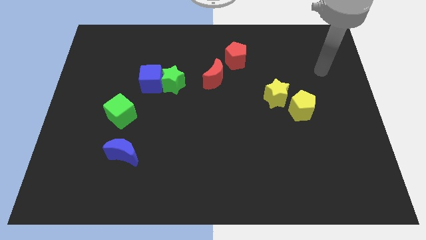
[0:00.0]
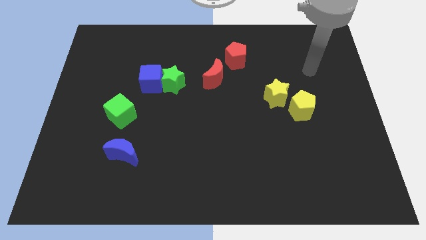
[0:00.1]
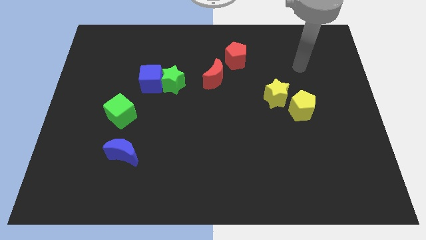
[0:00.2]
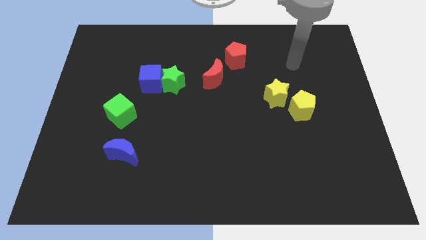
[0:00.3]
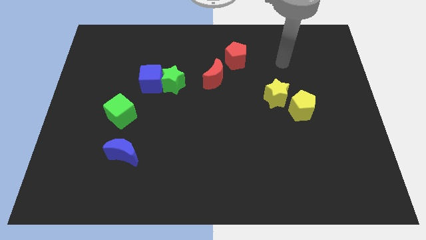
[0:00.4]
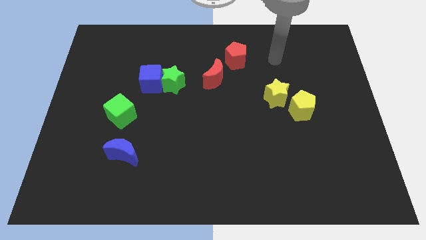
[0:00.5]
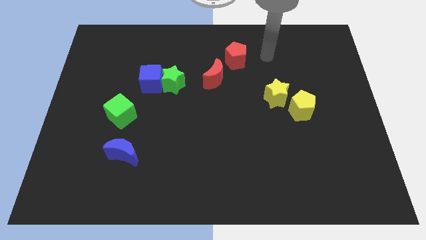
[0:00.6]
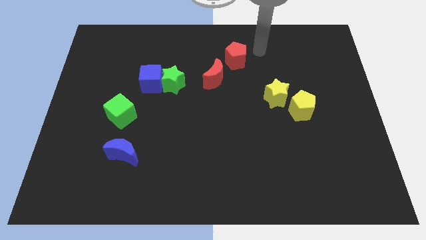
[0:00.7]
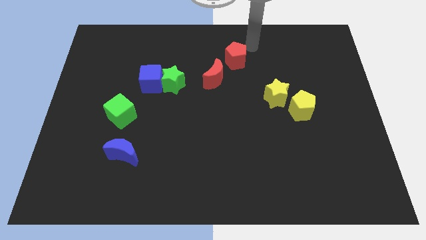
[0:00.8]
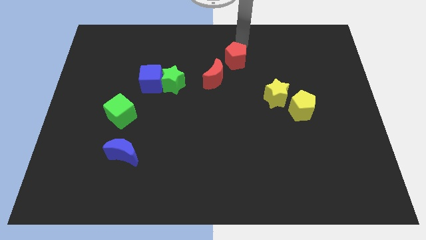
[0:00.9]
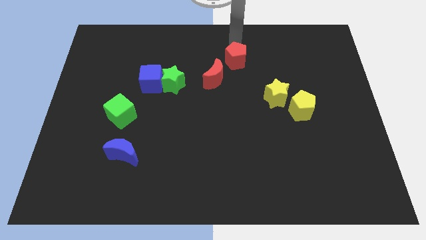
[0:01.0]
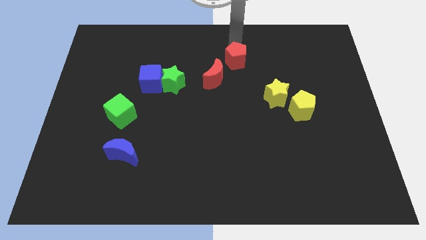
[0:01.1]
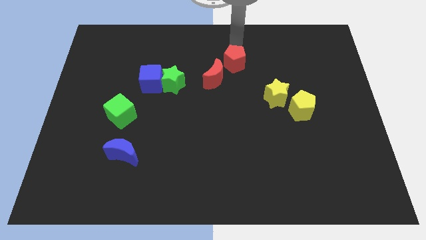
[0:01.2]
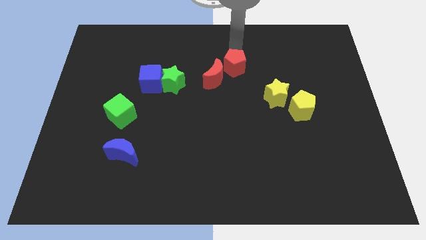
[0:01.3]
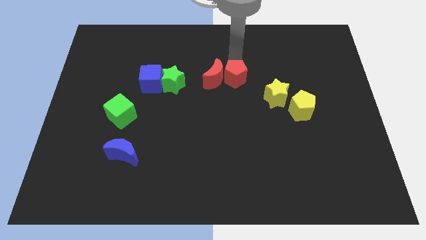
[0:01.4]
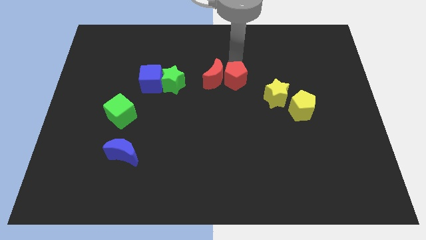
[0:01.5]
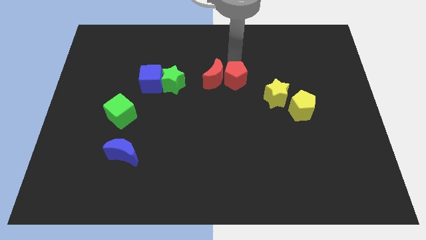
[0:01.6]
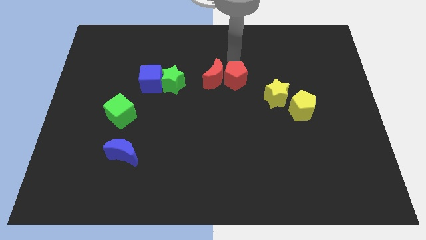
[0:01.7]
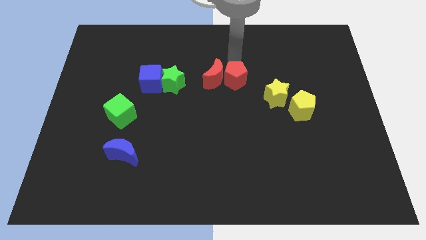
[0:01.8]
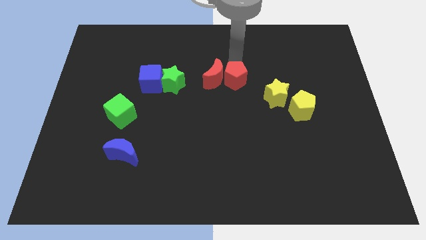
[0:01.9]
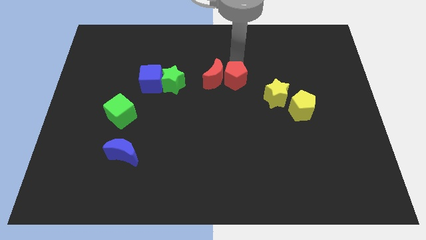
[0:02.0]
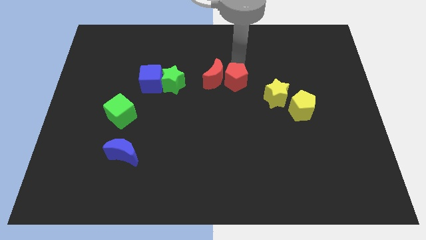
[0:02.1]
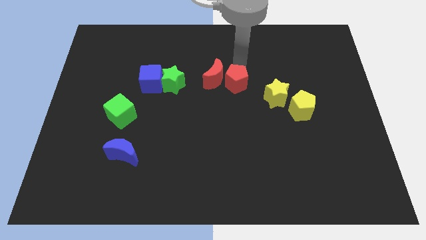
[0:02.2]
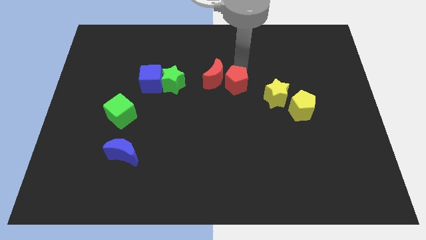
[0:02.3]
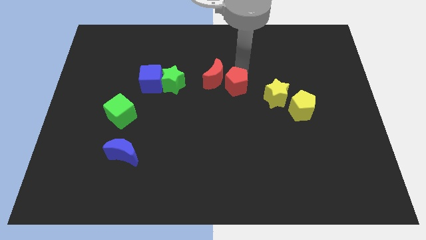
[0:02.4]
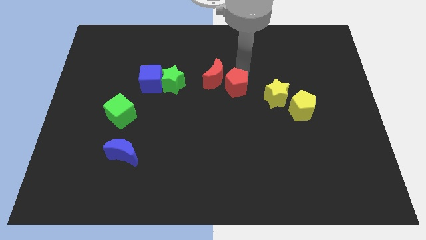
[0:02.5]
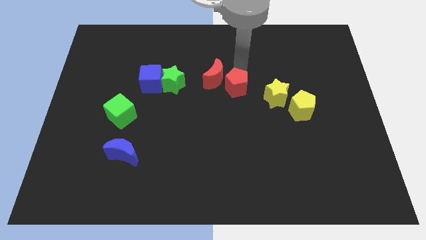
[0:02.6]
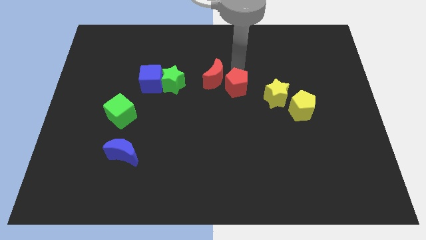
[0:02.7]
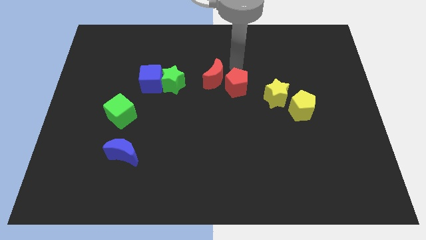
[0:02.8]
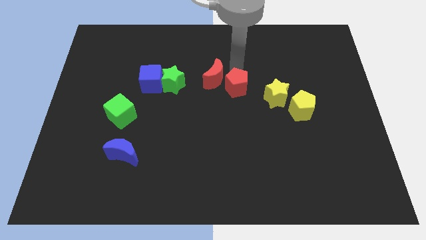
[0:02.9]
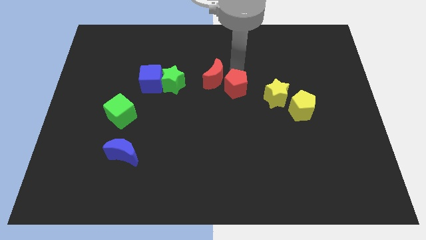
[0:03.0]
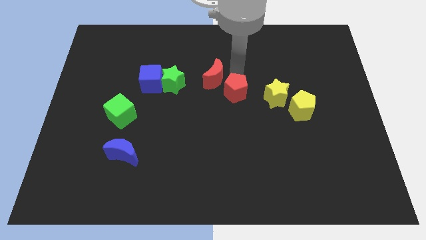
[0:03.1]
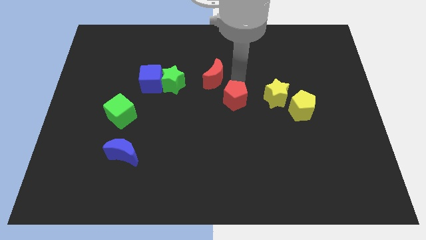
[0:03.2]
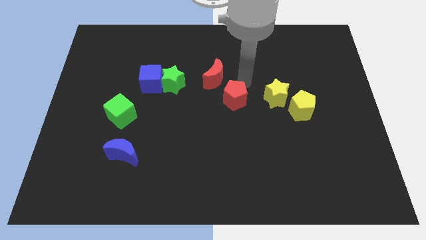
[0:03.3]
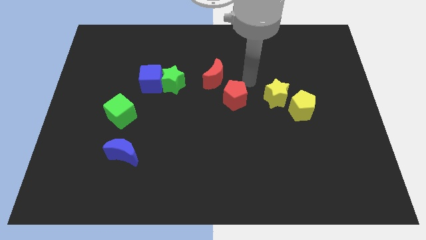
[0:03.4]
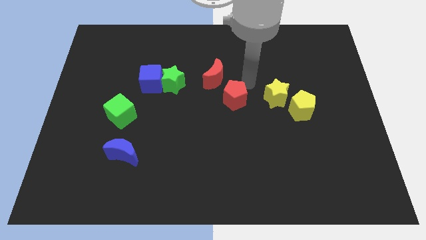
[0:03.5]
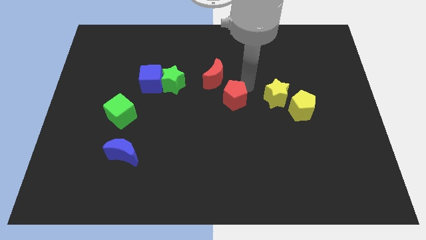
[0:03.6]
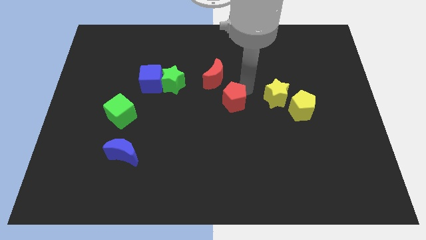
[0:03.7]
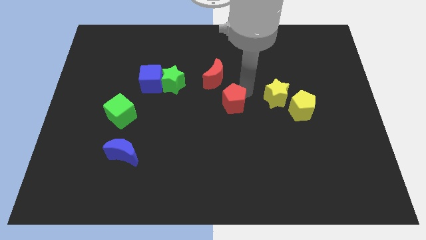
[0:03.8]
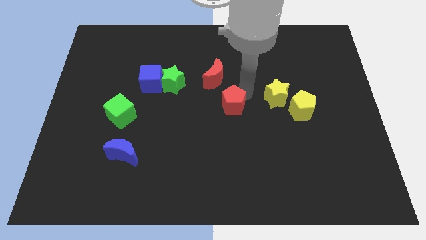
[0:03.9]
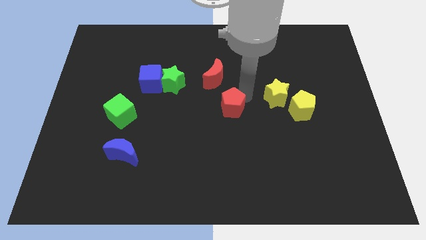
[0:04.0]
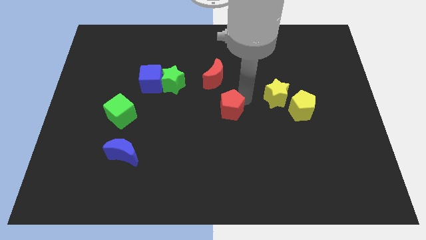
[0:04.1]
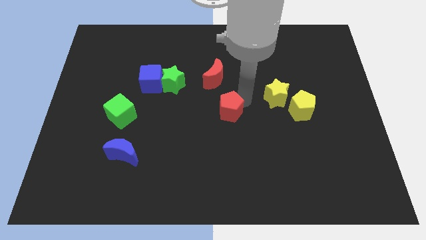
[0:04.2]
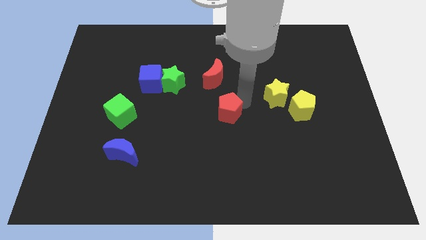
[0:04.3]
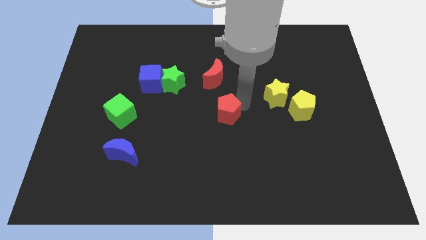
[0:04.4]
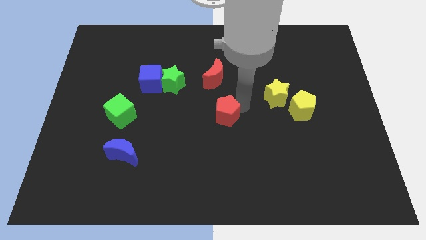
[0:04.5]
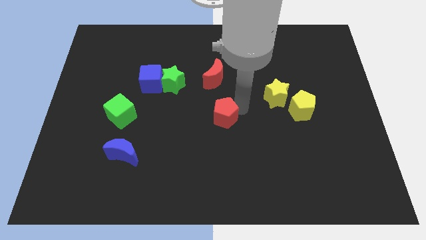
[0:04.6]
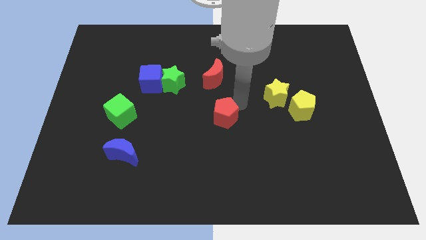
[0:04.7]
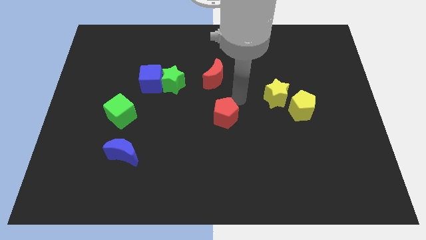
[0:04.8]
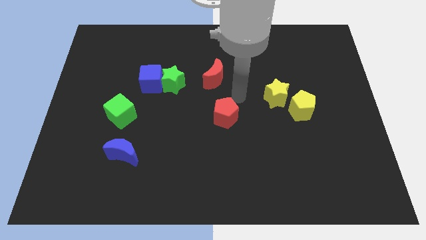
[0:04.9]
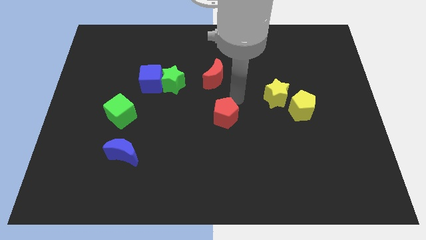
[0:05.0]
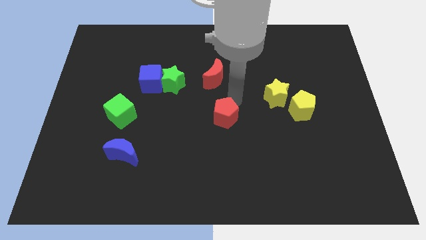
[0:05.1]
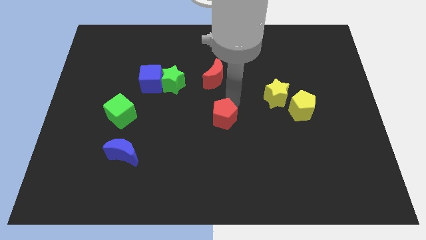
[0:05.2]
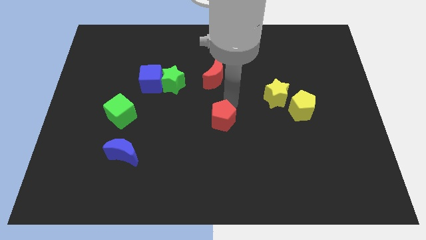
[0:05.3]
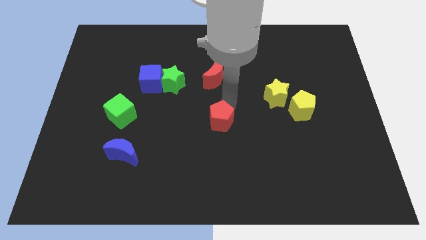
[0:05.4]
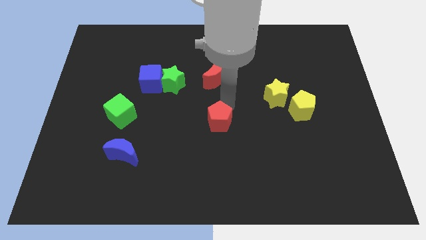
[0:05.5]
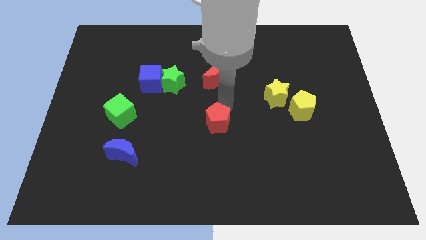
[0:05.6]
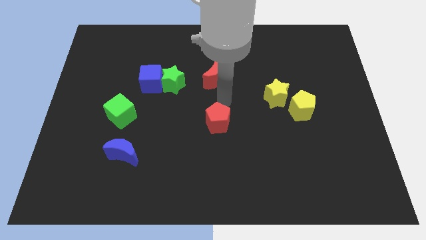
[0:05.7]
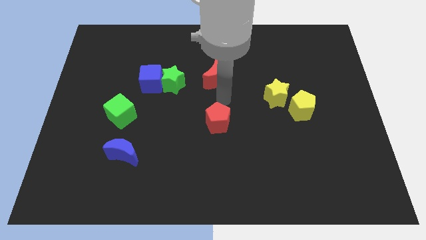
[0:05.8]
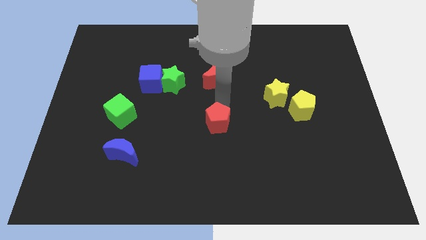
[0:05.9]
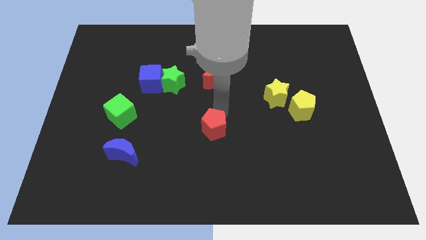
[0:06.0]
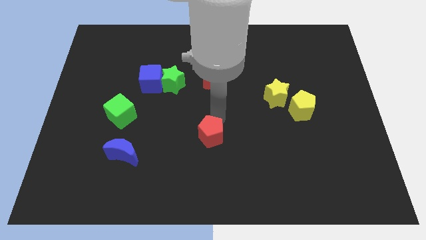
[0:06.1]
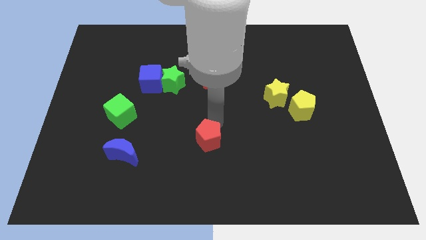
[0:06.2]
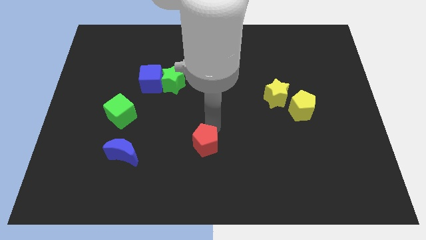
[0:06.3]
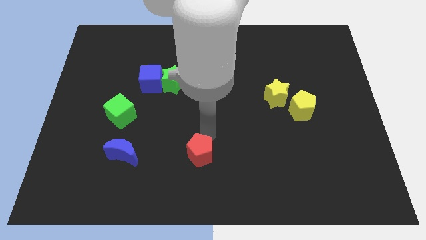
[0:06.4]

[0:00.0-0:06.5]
slide the red pentagon to the bottom side
